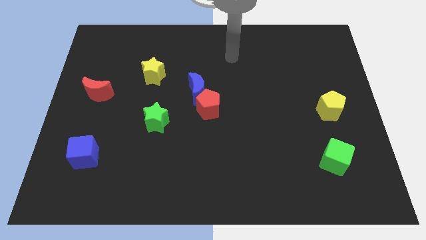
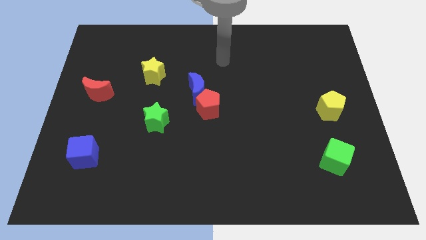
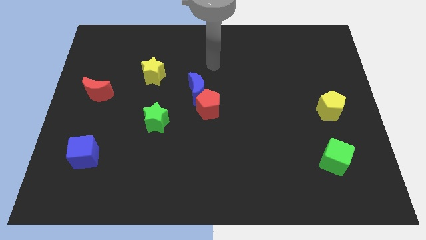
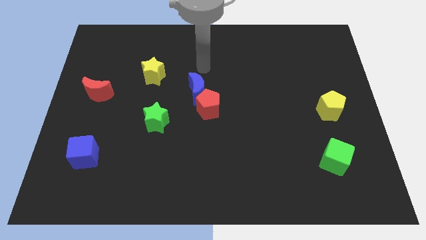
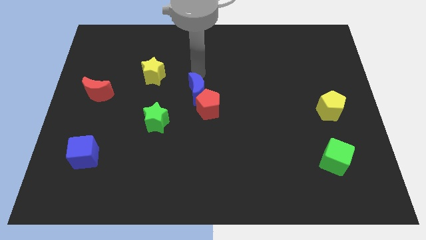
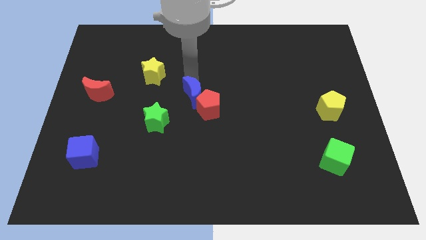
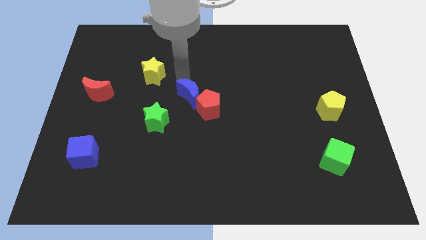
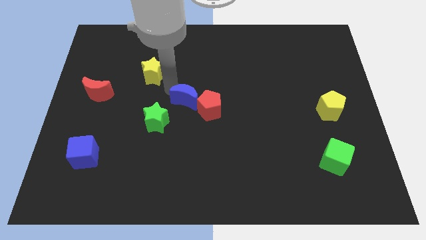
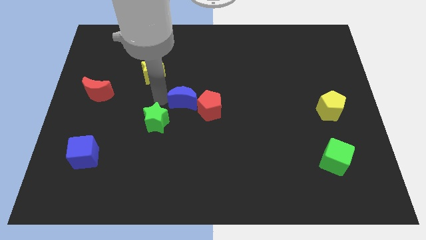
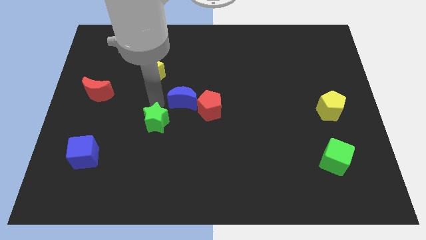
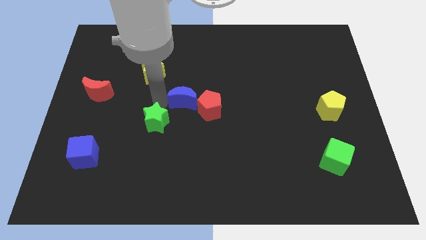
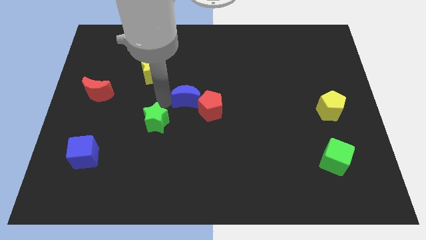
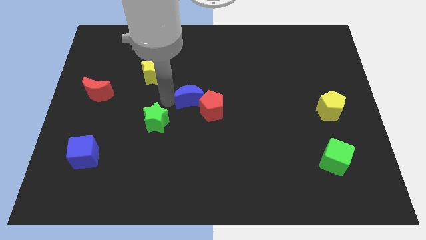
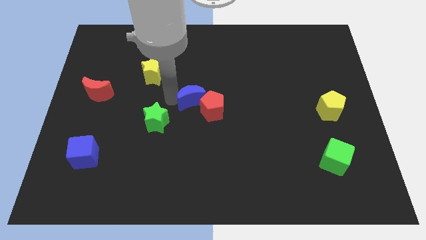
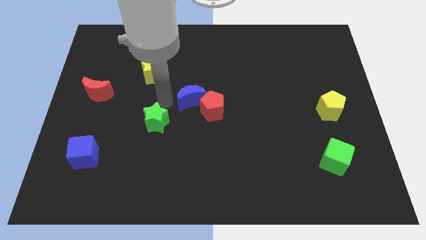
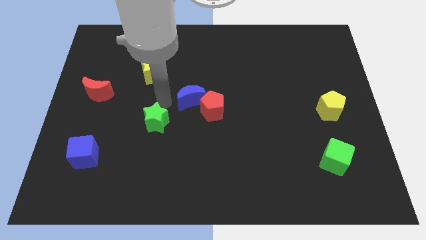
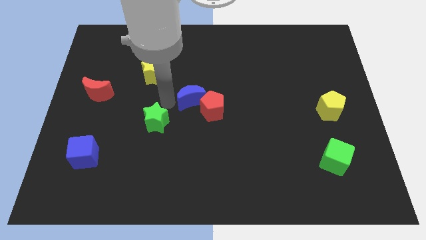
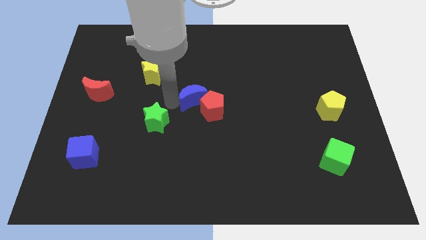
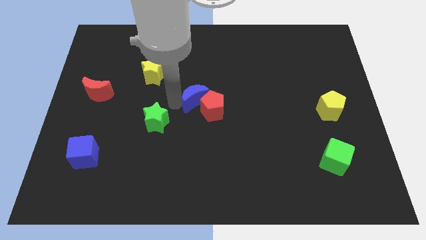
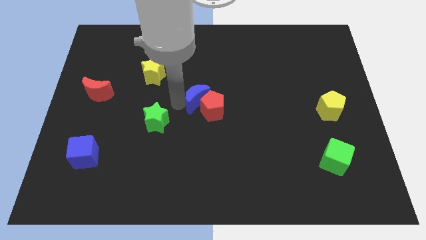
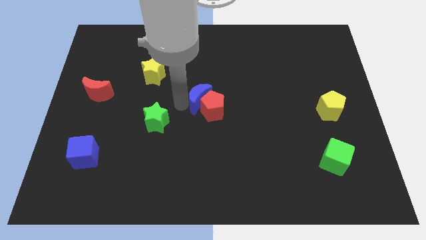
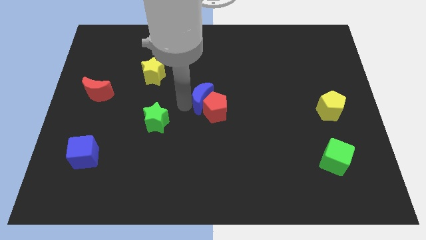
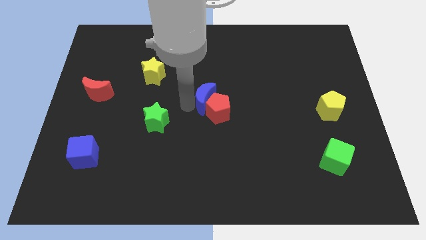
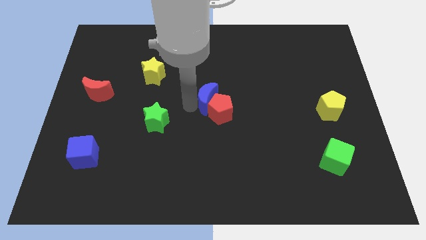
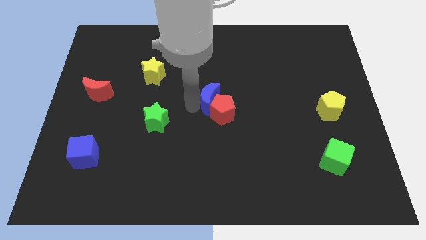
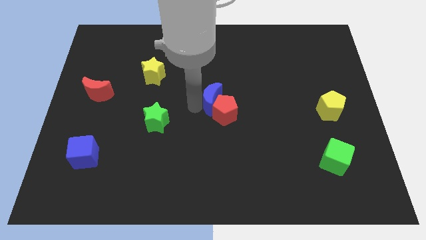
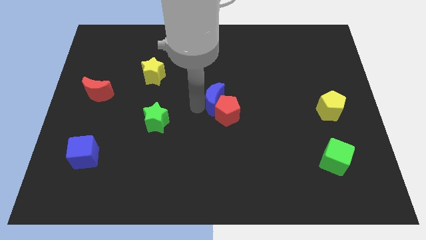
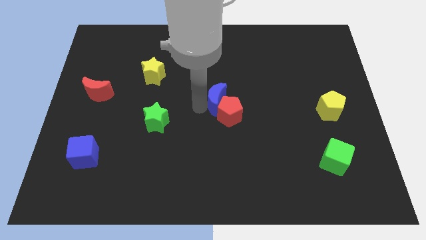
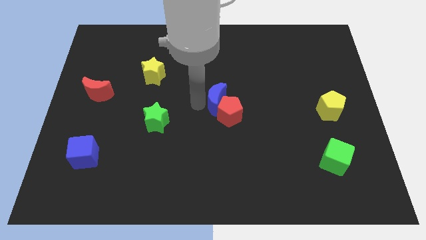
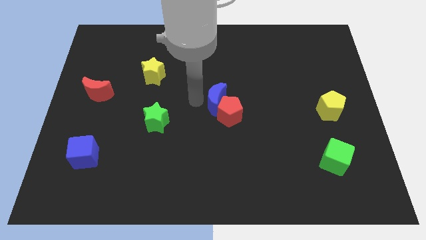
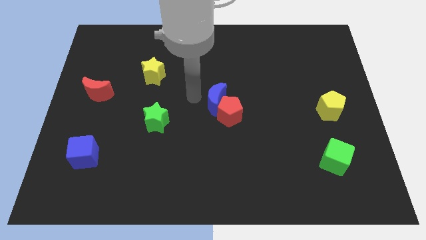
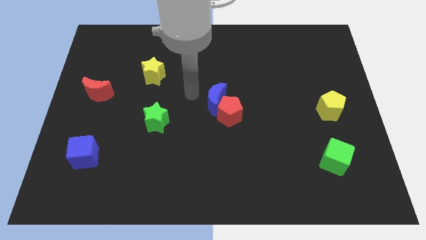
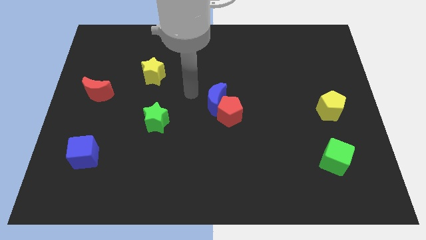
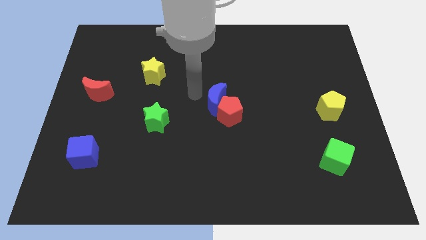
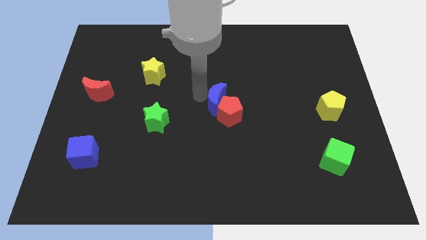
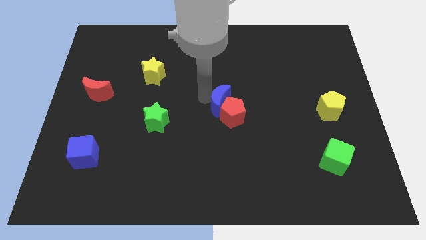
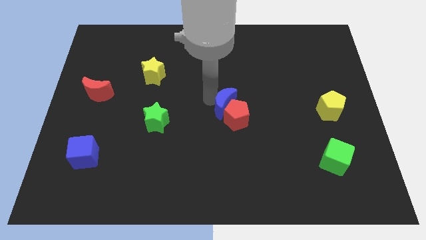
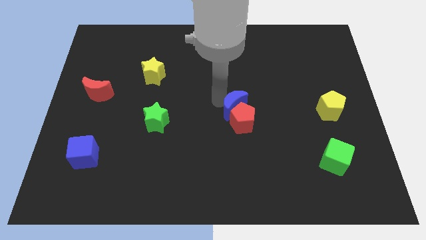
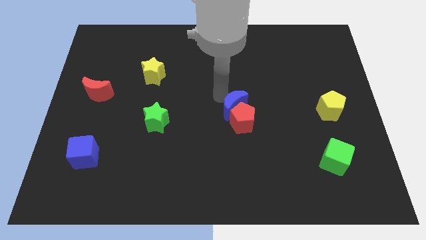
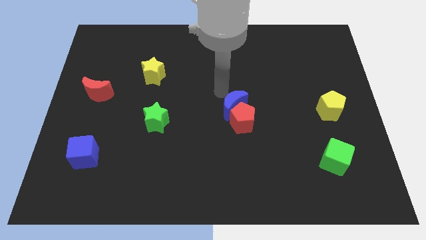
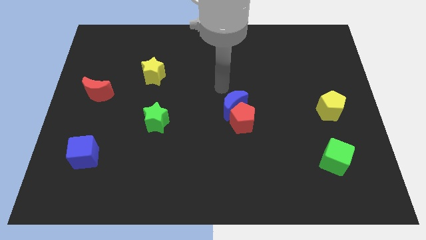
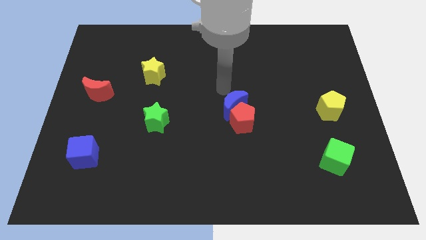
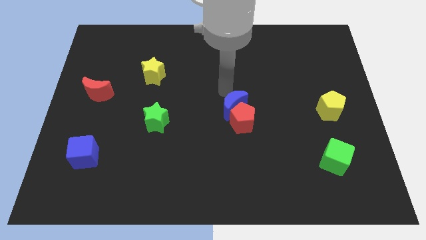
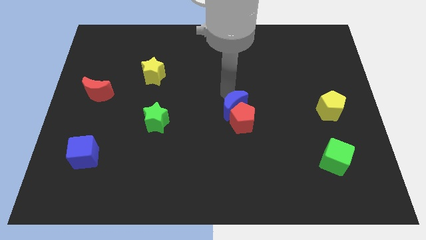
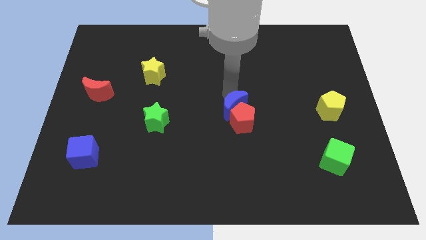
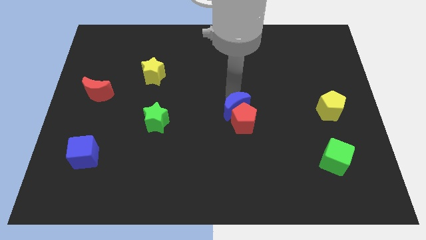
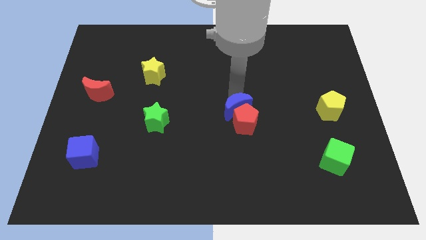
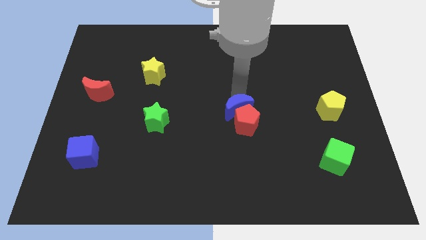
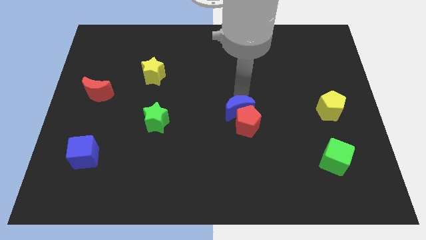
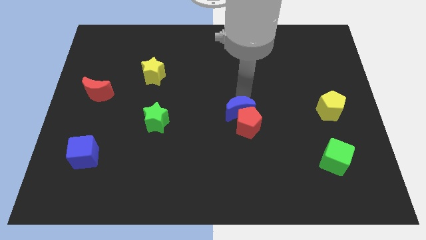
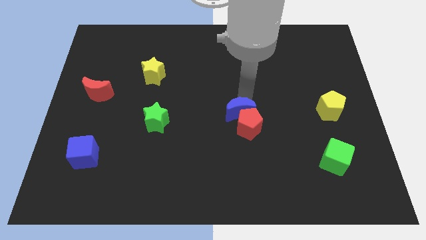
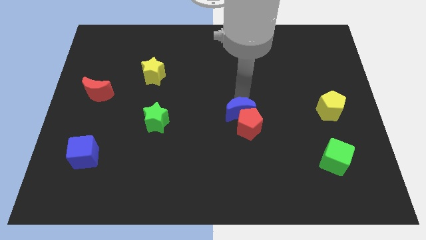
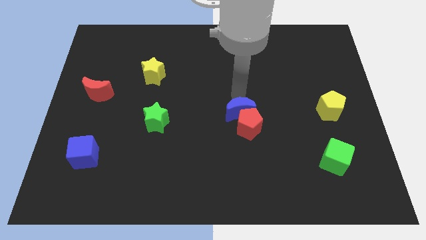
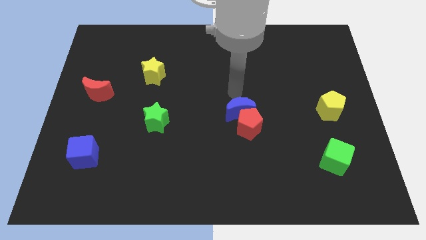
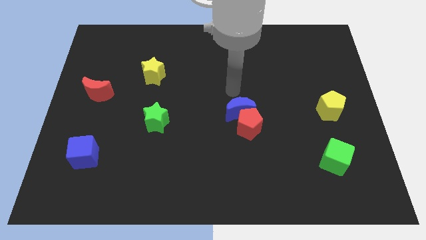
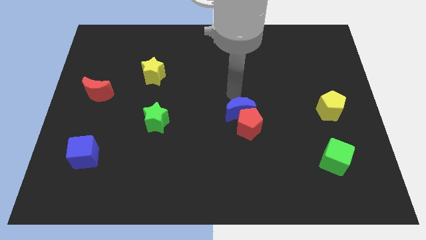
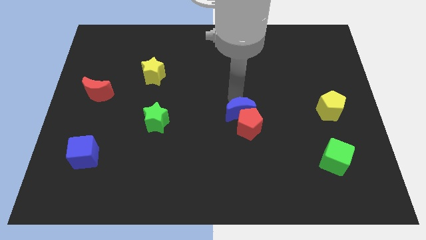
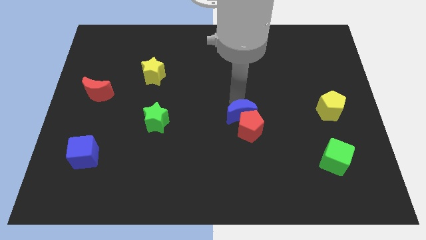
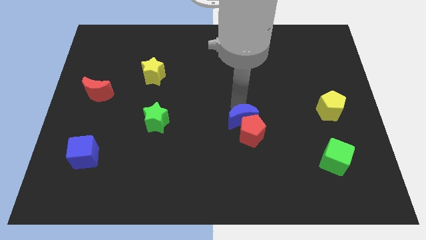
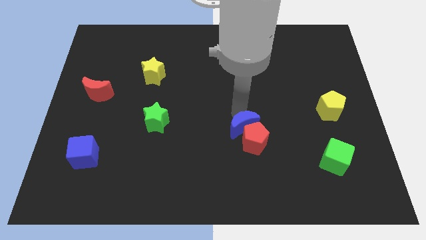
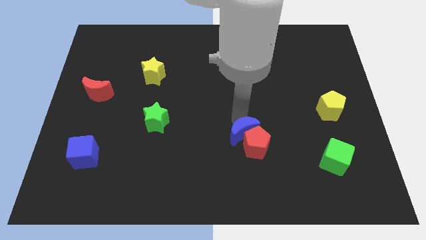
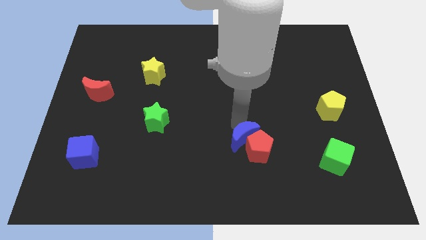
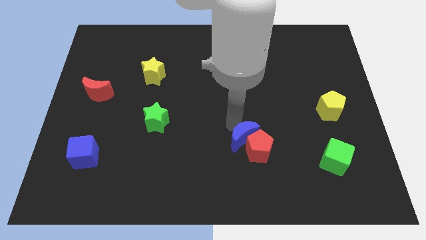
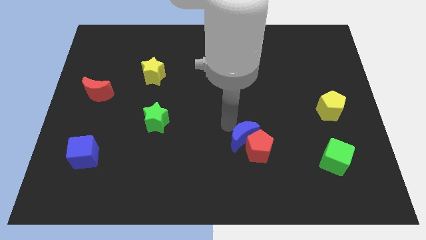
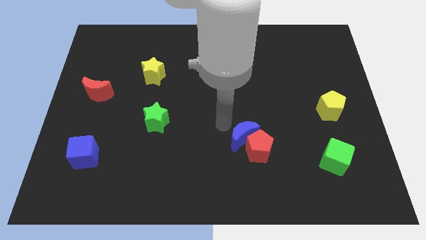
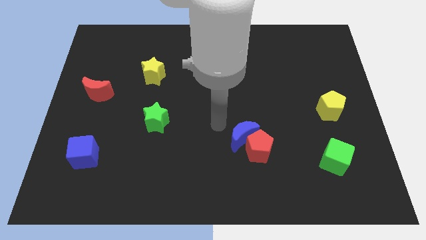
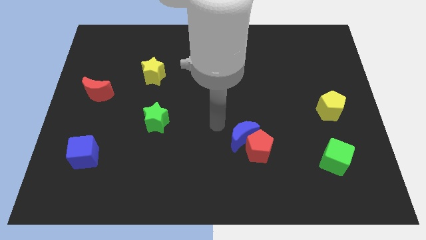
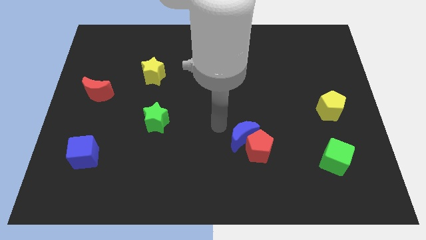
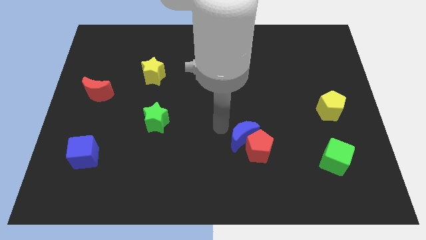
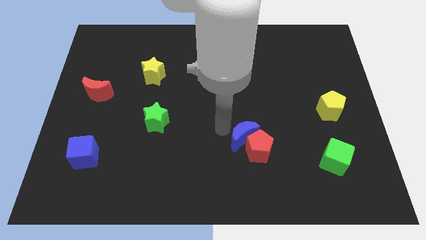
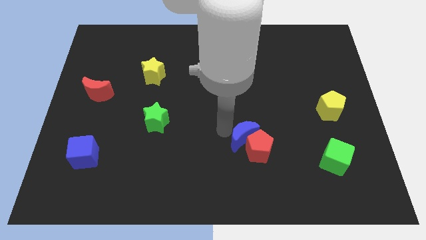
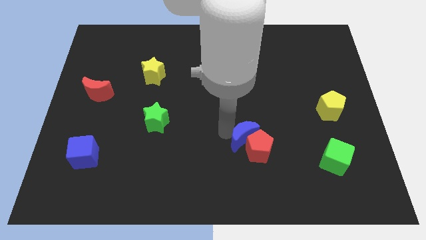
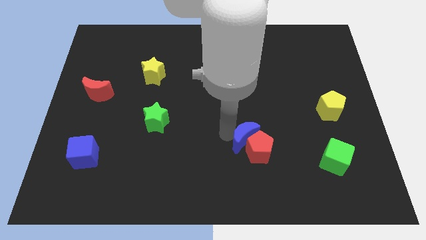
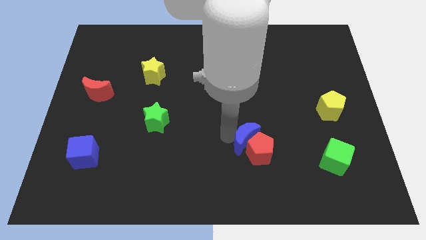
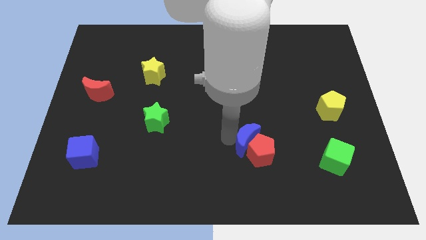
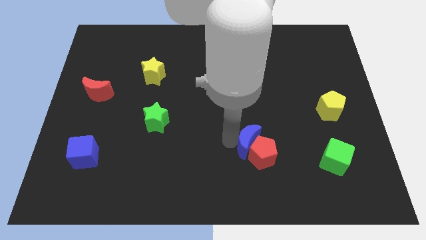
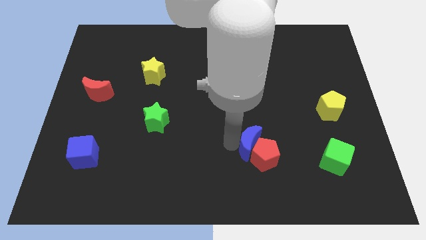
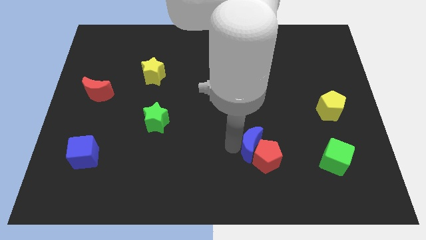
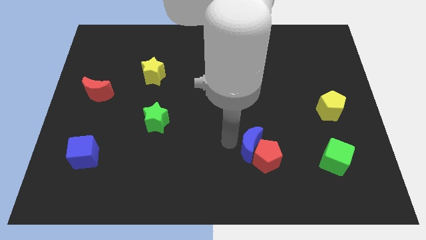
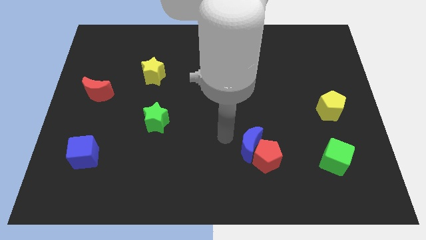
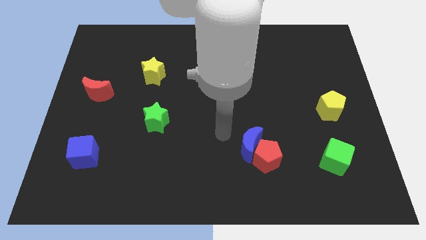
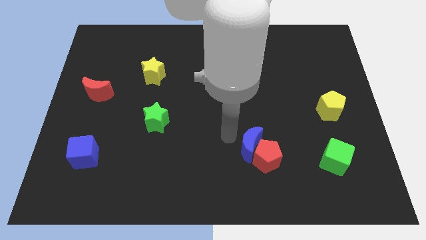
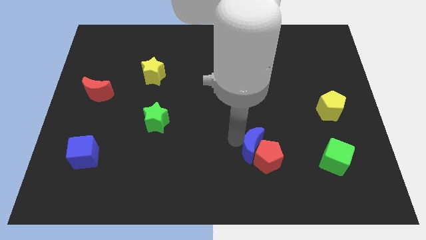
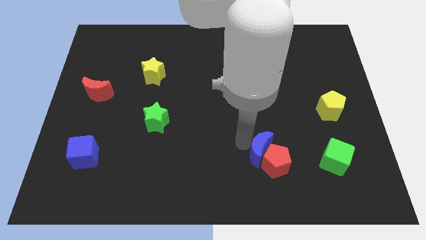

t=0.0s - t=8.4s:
push the blue moon down and then to the right
